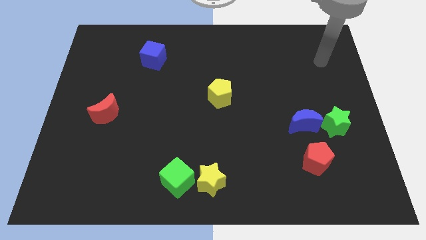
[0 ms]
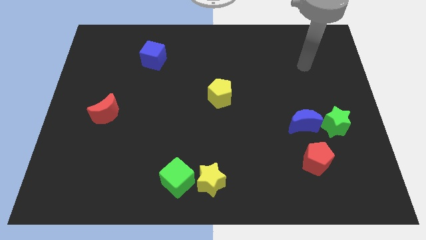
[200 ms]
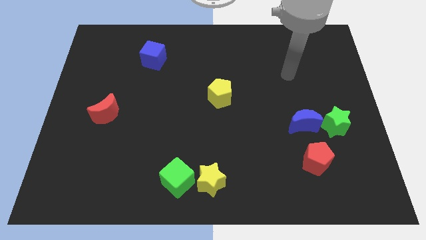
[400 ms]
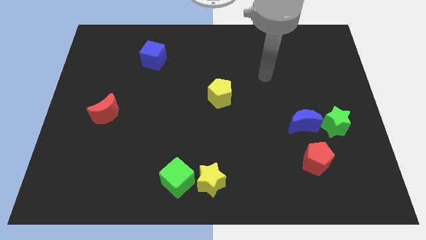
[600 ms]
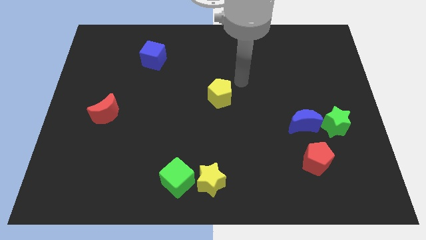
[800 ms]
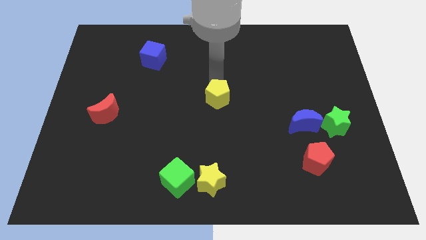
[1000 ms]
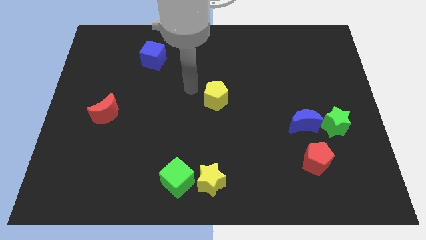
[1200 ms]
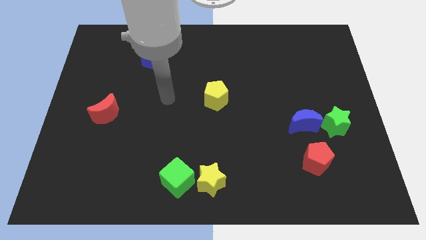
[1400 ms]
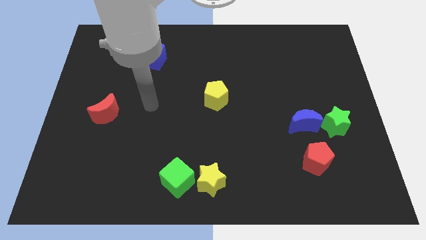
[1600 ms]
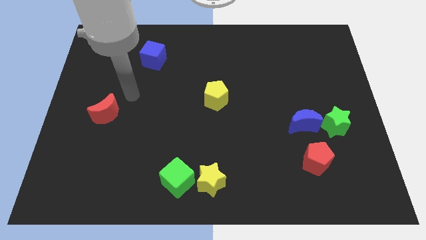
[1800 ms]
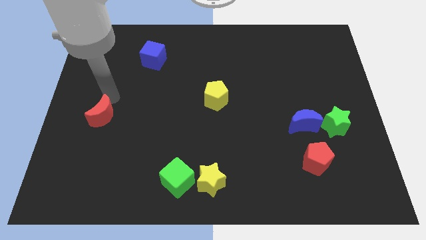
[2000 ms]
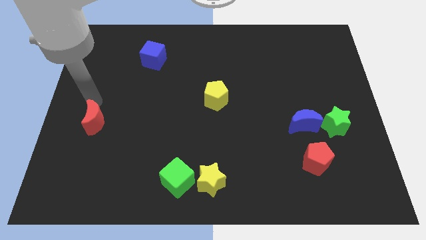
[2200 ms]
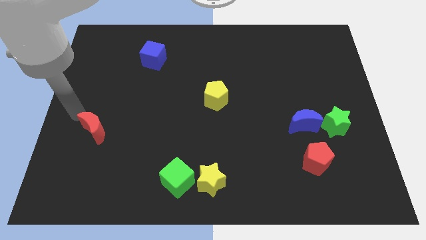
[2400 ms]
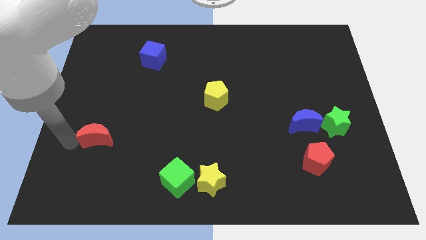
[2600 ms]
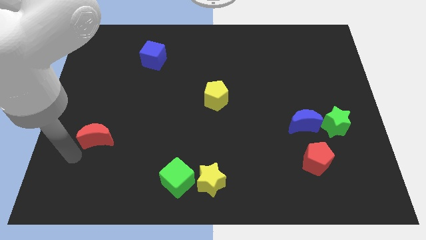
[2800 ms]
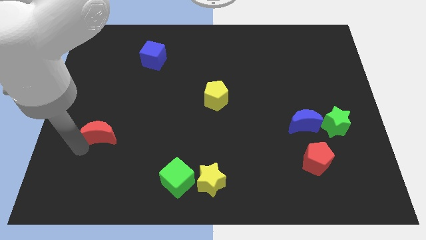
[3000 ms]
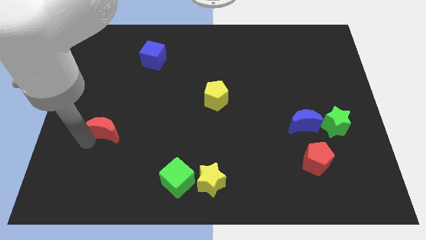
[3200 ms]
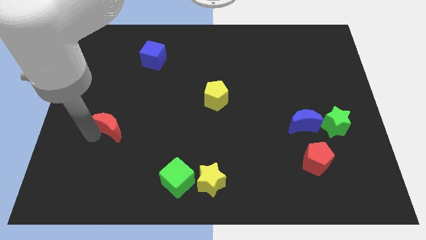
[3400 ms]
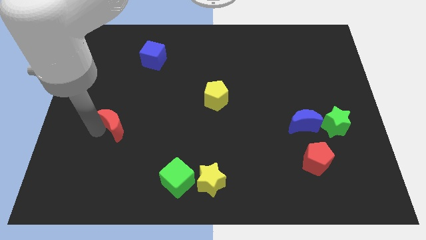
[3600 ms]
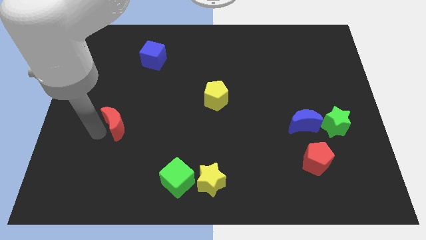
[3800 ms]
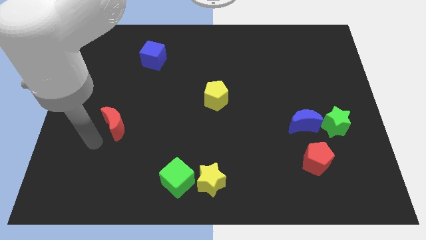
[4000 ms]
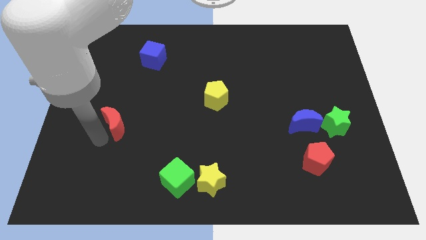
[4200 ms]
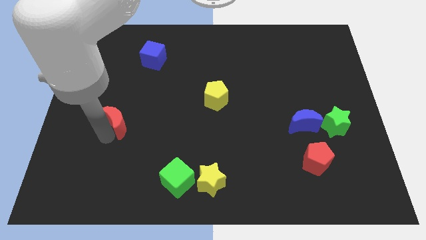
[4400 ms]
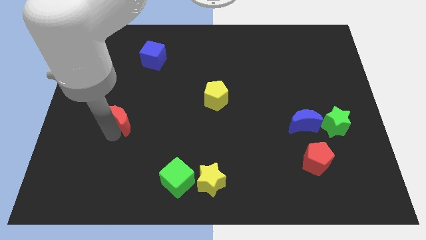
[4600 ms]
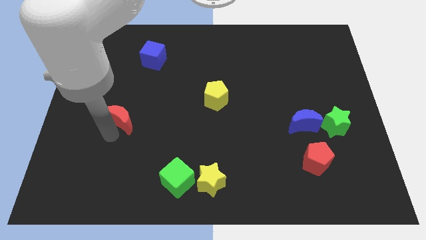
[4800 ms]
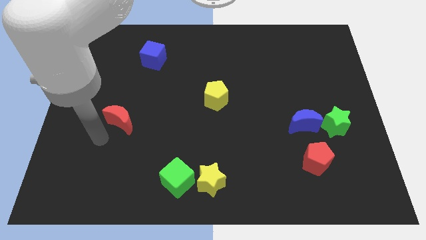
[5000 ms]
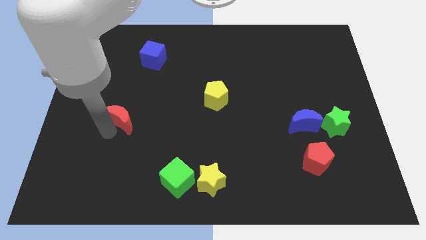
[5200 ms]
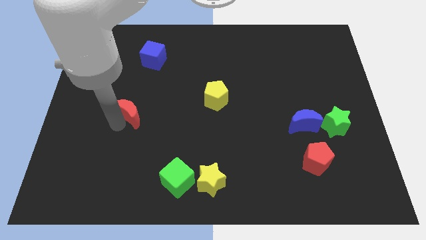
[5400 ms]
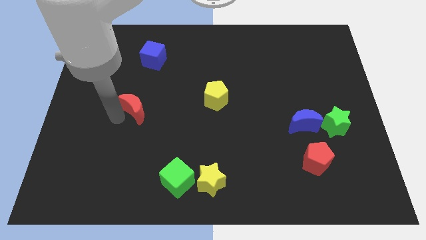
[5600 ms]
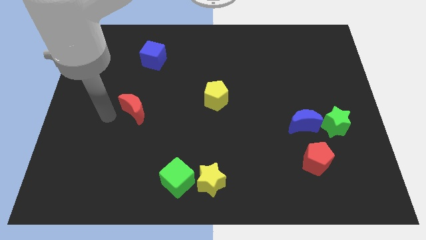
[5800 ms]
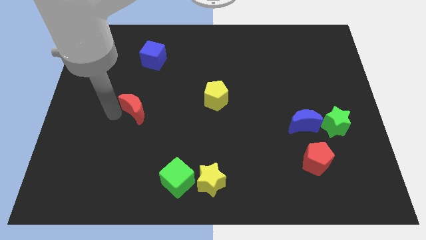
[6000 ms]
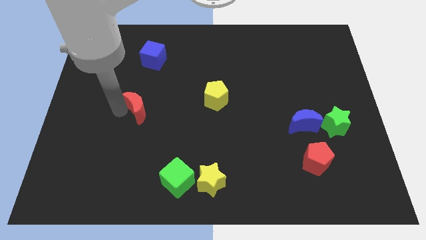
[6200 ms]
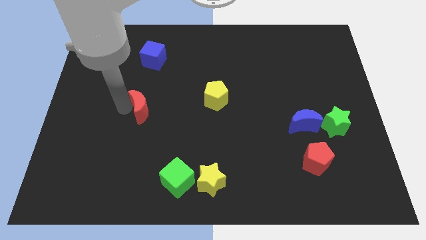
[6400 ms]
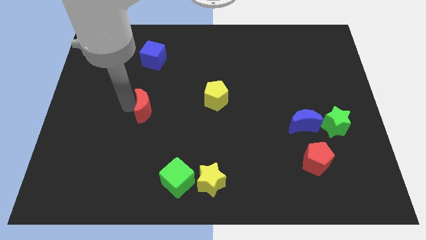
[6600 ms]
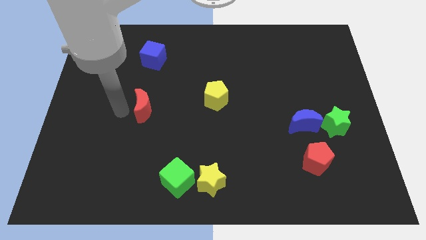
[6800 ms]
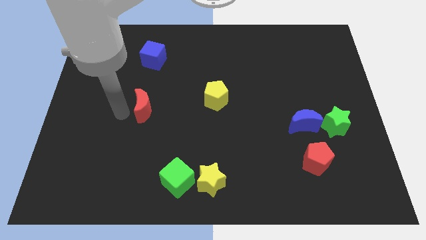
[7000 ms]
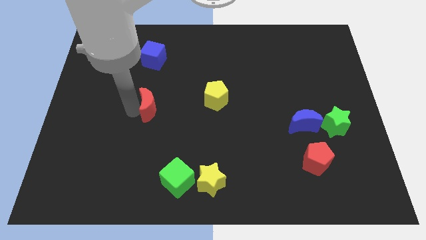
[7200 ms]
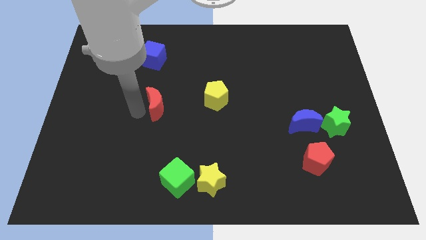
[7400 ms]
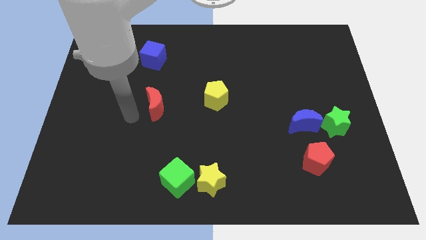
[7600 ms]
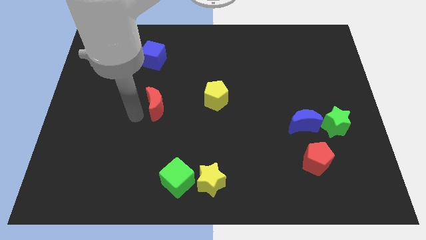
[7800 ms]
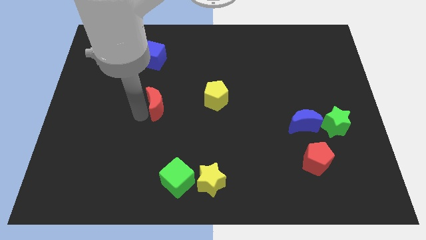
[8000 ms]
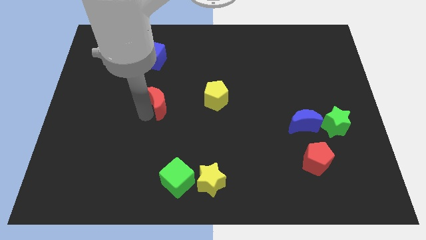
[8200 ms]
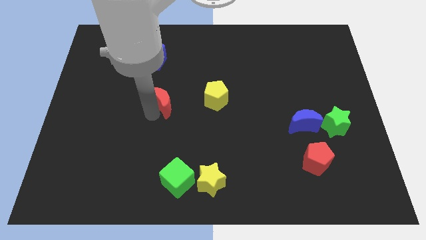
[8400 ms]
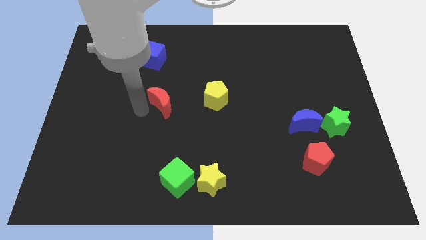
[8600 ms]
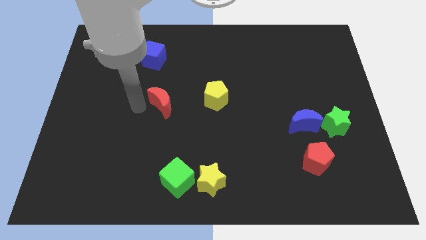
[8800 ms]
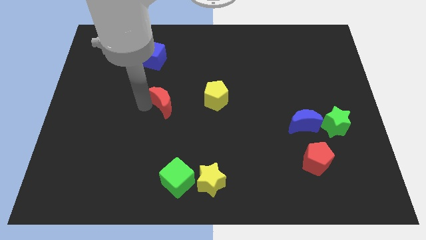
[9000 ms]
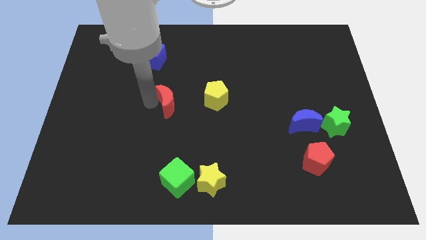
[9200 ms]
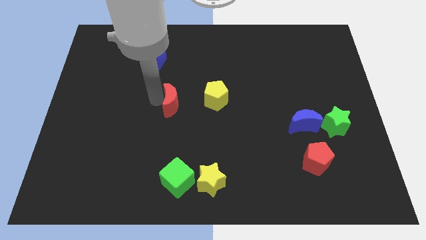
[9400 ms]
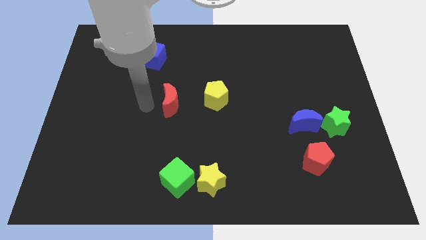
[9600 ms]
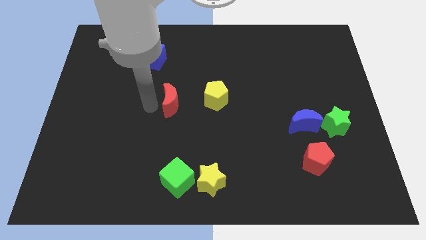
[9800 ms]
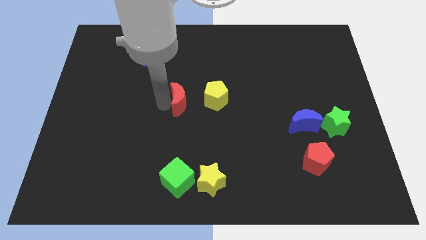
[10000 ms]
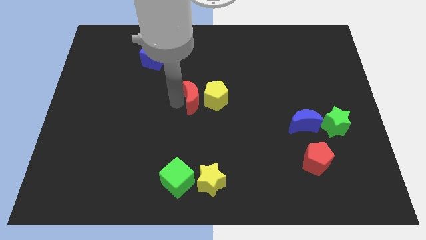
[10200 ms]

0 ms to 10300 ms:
push the red moon towards the yellow pentagon

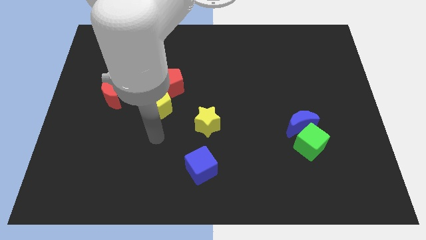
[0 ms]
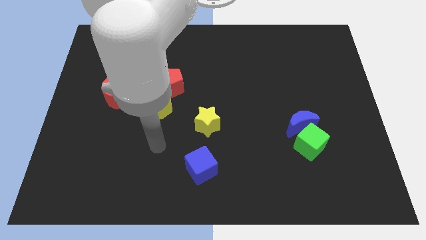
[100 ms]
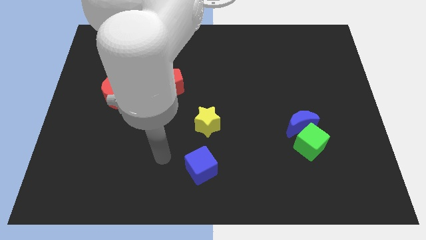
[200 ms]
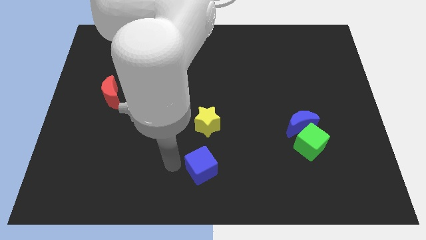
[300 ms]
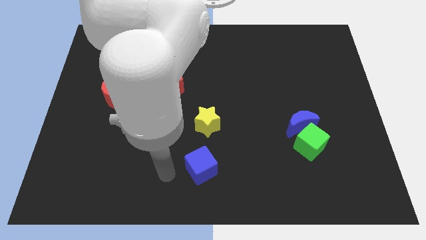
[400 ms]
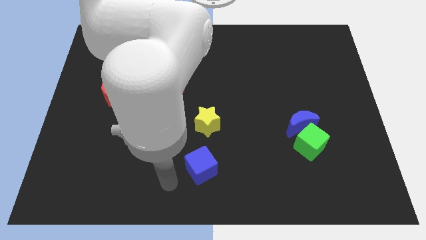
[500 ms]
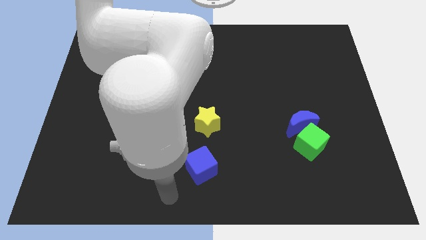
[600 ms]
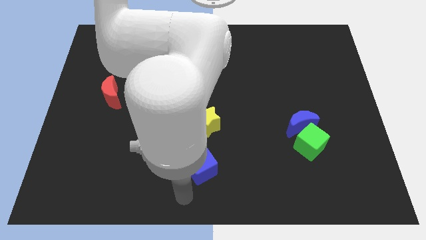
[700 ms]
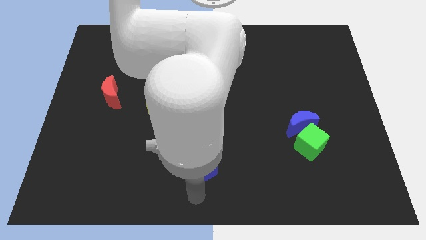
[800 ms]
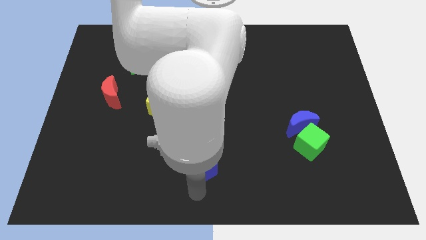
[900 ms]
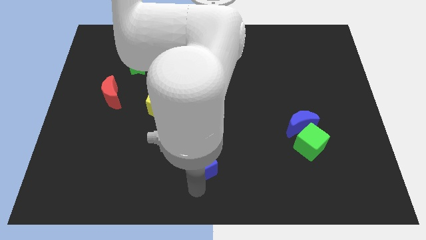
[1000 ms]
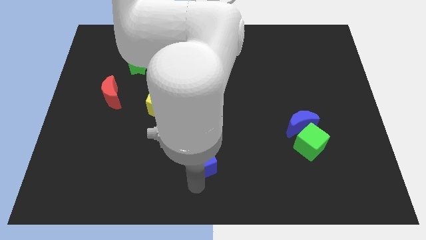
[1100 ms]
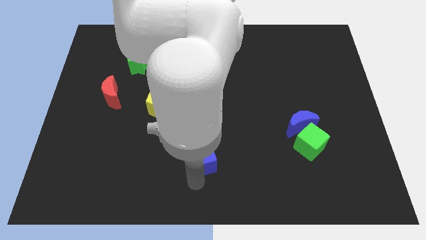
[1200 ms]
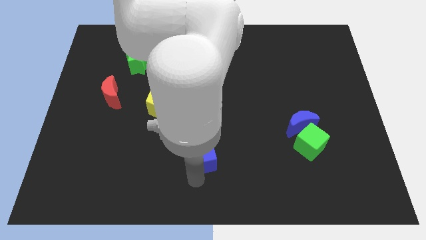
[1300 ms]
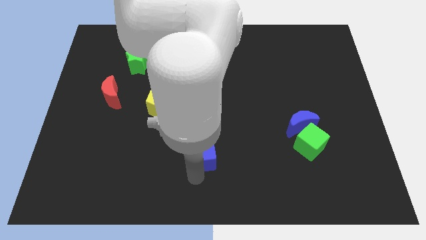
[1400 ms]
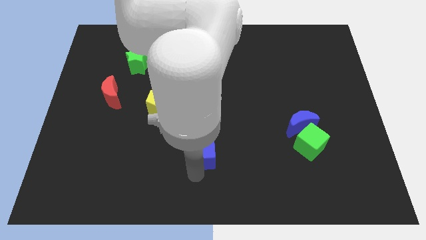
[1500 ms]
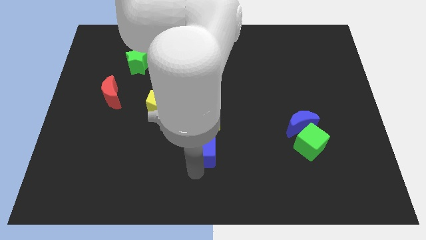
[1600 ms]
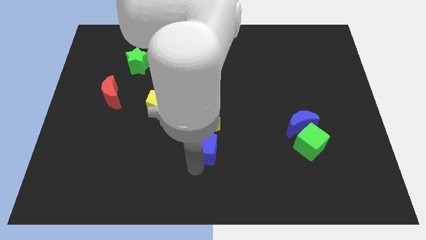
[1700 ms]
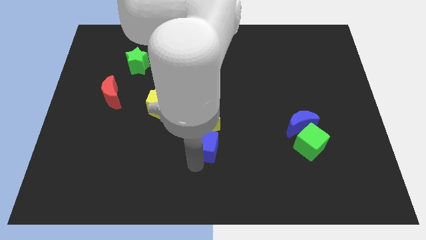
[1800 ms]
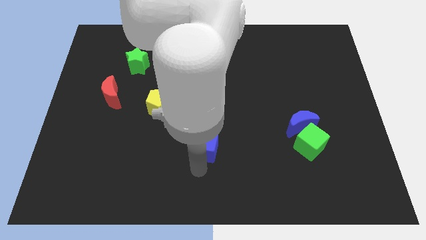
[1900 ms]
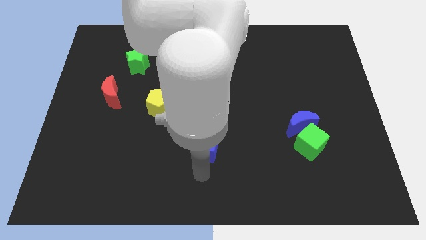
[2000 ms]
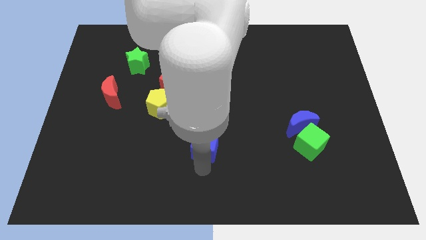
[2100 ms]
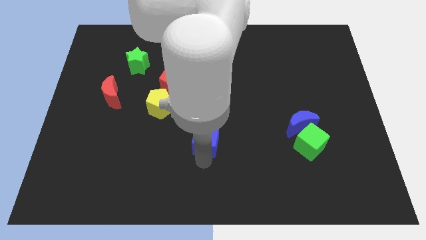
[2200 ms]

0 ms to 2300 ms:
push the blue cube towards the yellow star
